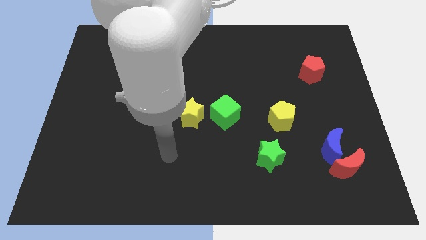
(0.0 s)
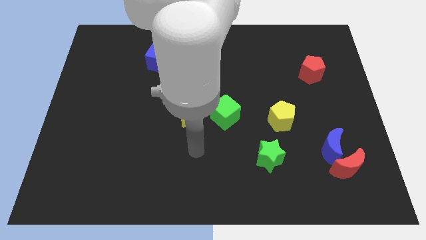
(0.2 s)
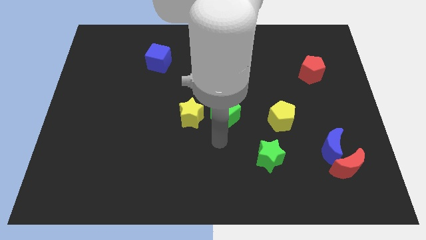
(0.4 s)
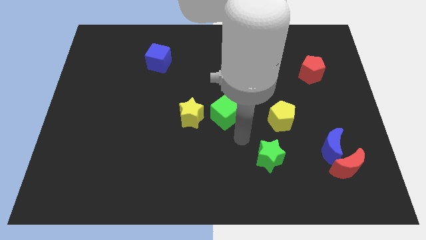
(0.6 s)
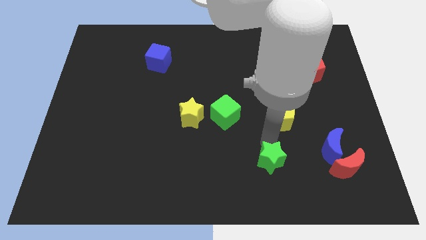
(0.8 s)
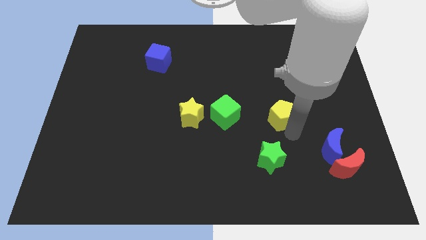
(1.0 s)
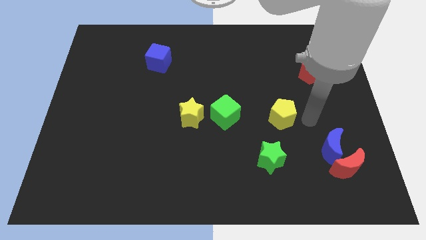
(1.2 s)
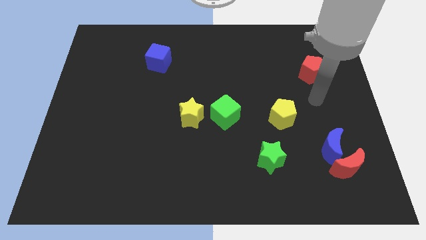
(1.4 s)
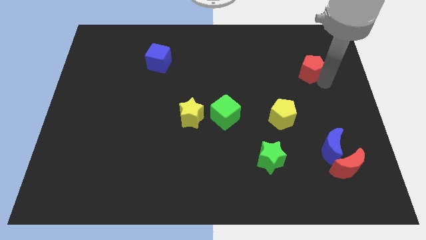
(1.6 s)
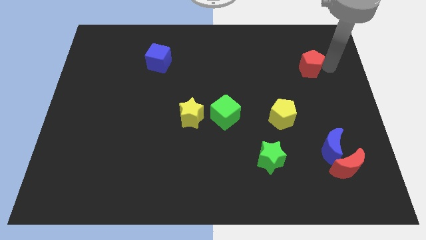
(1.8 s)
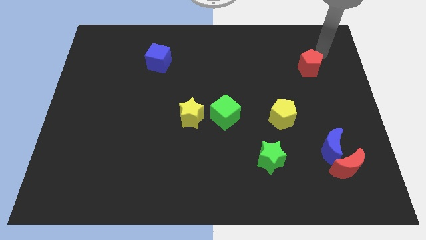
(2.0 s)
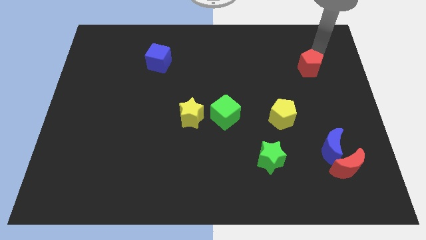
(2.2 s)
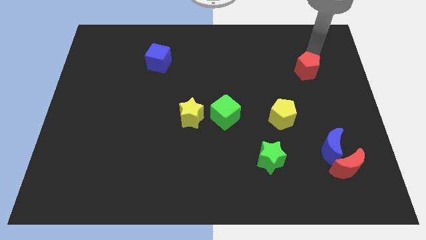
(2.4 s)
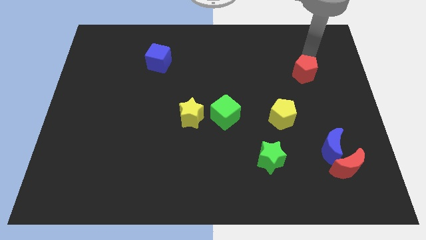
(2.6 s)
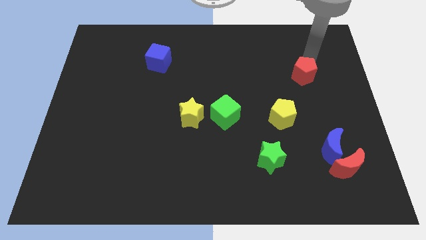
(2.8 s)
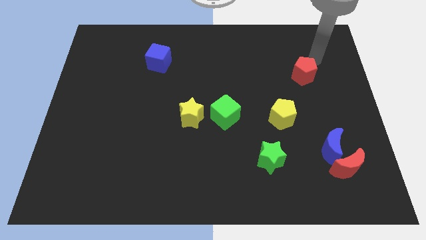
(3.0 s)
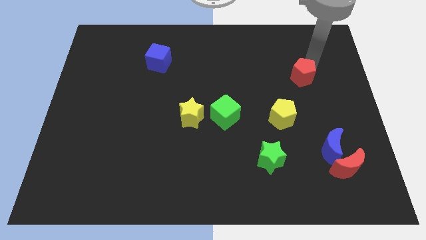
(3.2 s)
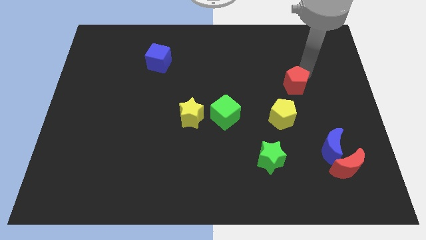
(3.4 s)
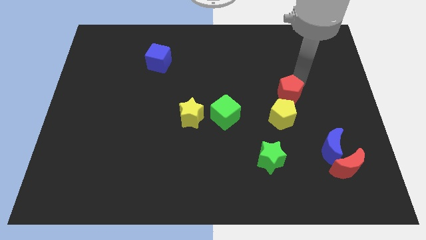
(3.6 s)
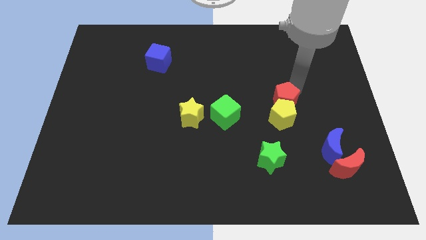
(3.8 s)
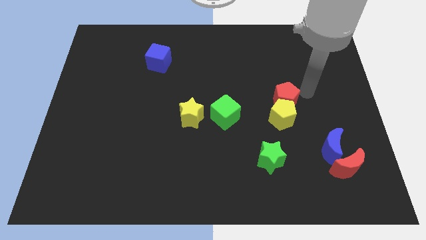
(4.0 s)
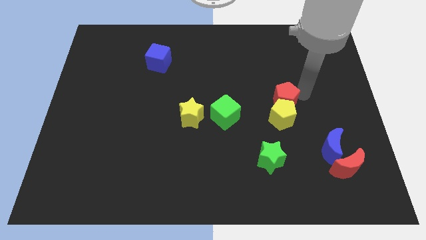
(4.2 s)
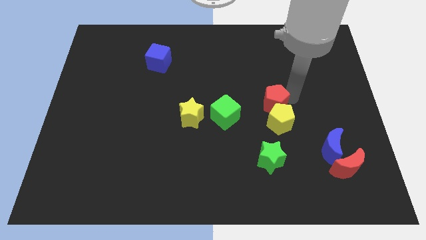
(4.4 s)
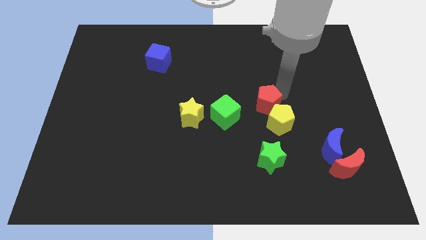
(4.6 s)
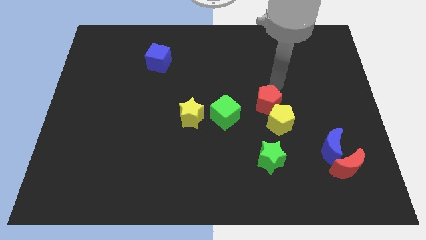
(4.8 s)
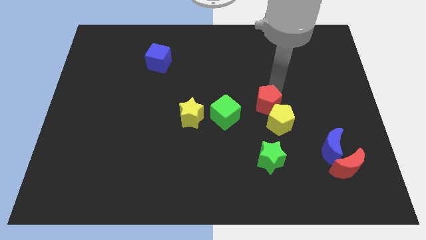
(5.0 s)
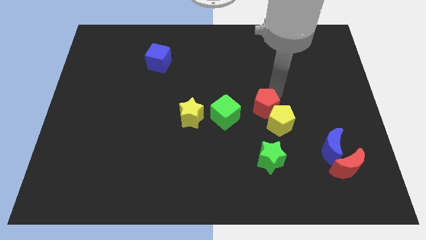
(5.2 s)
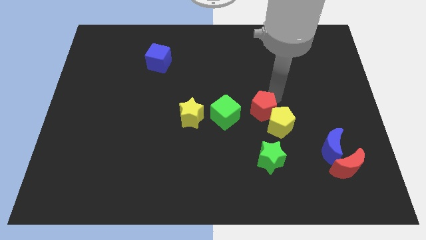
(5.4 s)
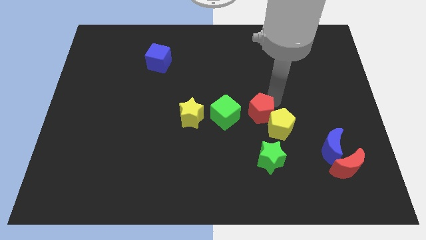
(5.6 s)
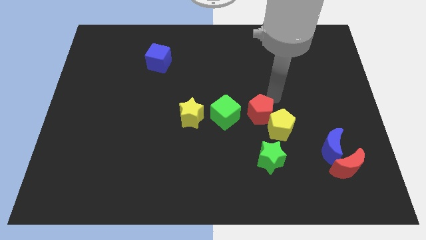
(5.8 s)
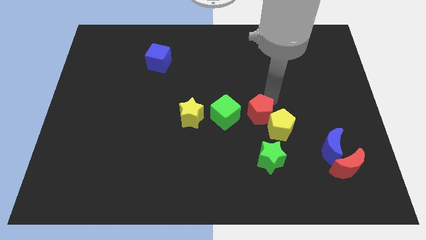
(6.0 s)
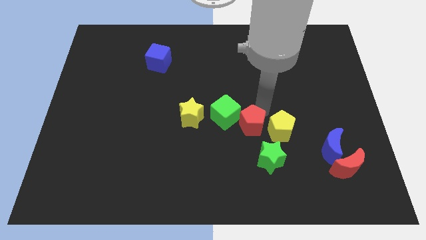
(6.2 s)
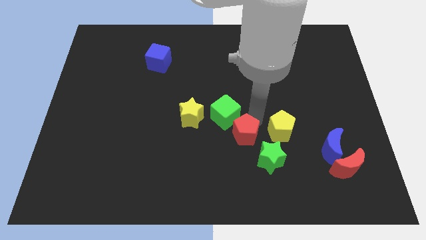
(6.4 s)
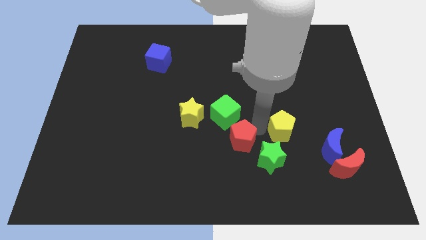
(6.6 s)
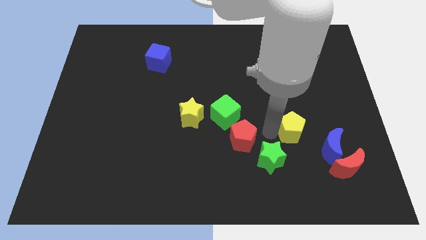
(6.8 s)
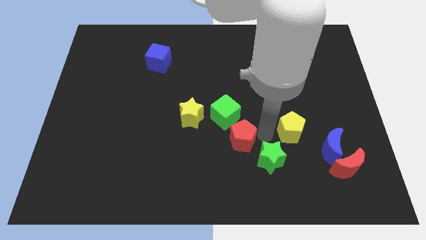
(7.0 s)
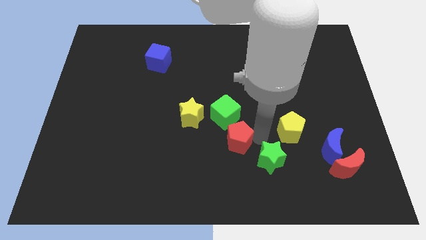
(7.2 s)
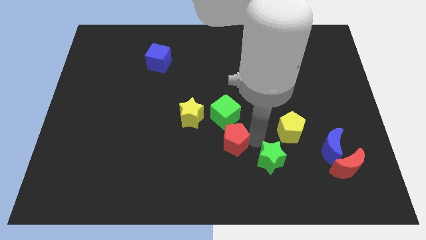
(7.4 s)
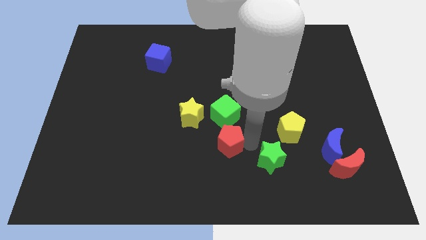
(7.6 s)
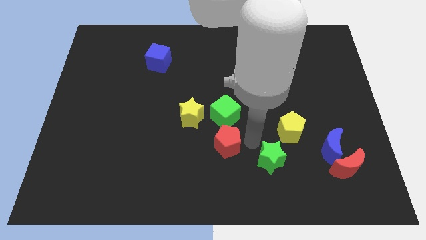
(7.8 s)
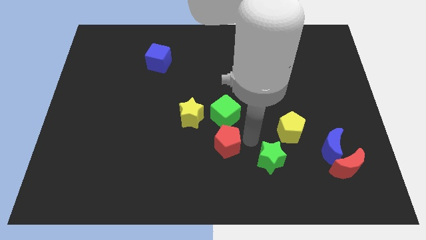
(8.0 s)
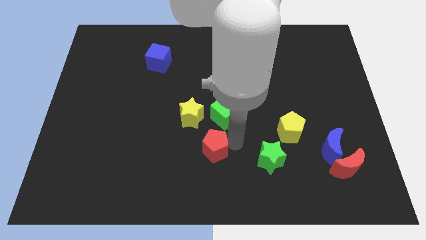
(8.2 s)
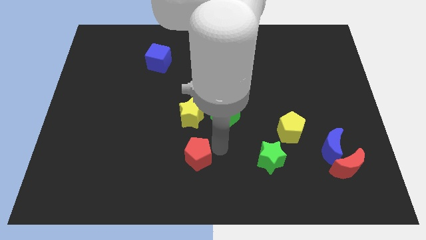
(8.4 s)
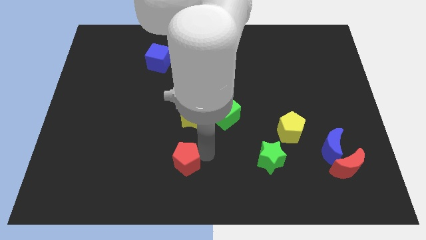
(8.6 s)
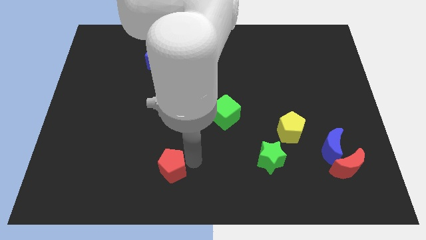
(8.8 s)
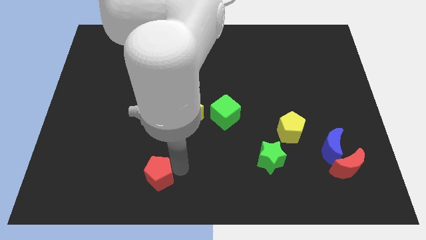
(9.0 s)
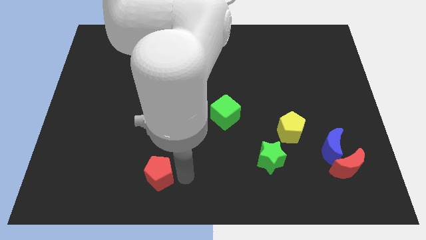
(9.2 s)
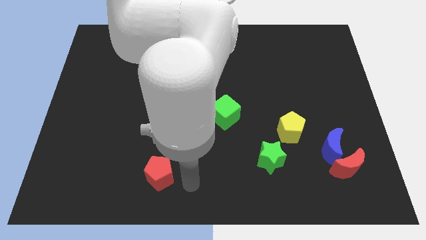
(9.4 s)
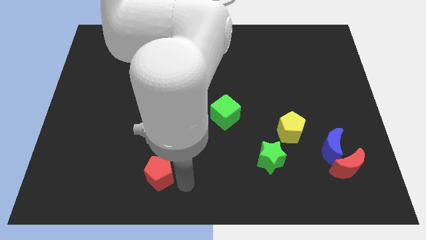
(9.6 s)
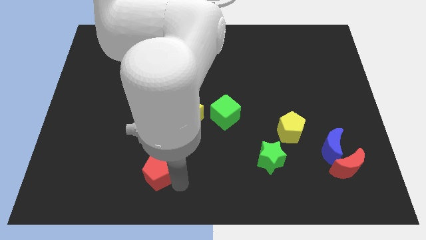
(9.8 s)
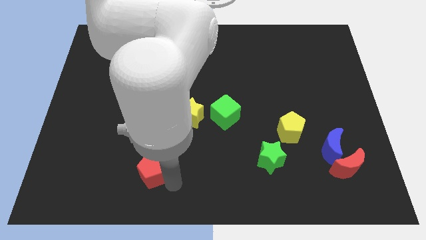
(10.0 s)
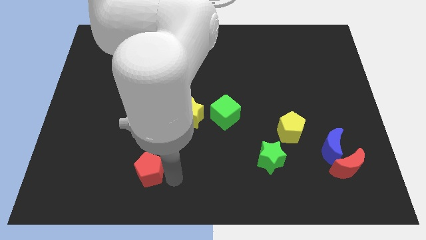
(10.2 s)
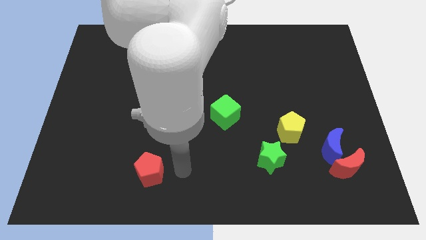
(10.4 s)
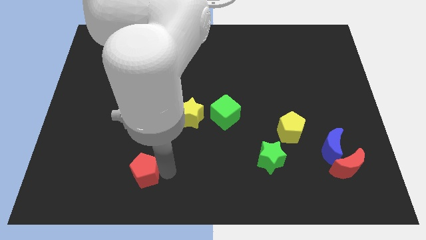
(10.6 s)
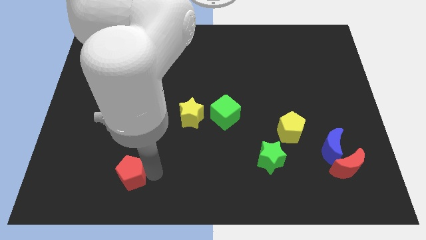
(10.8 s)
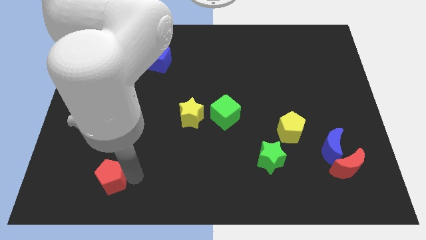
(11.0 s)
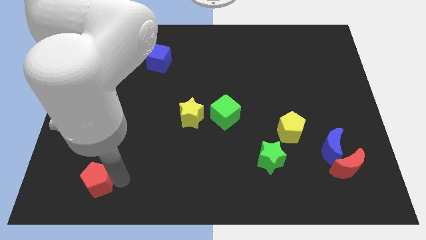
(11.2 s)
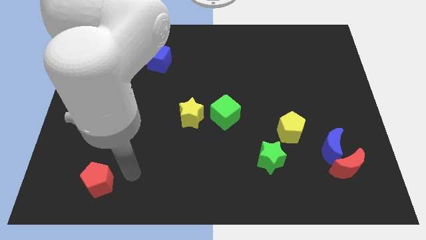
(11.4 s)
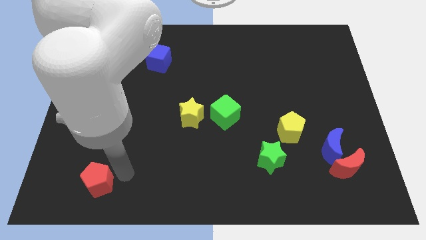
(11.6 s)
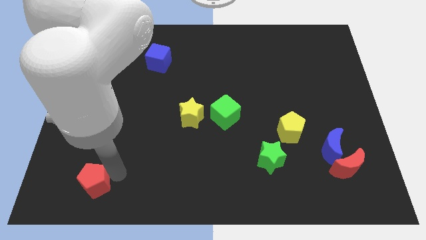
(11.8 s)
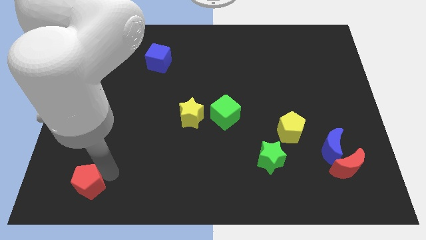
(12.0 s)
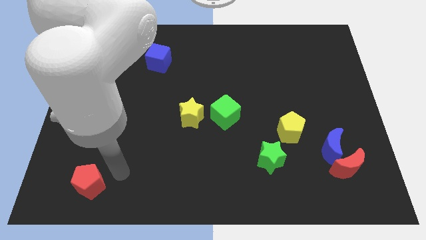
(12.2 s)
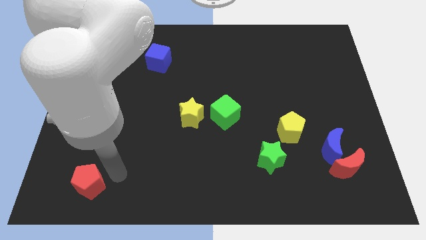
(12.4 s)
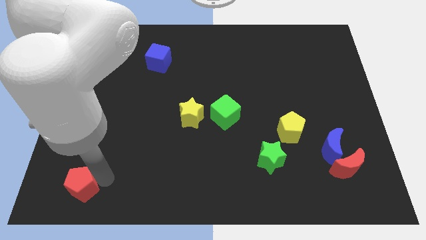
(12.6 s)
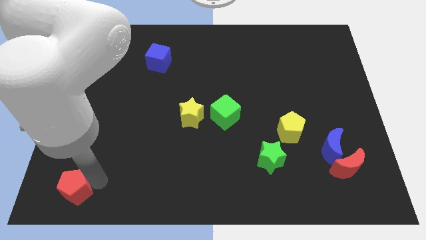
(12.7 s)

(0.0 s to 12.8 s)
slide the red pentagon to the lower left corner
